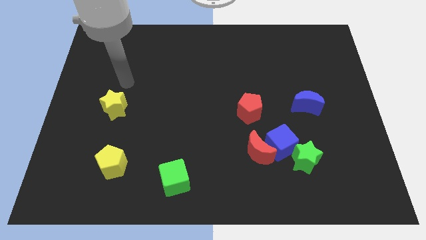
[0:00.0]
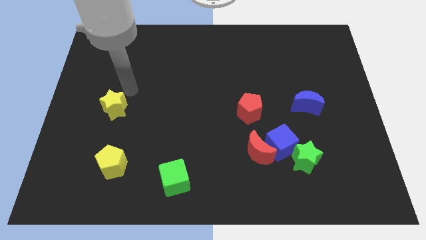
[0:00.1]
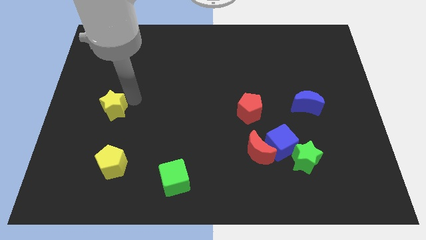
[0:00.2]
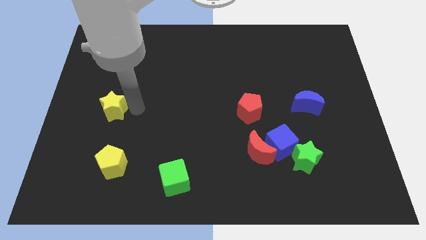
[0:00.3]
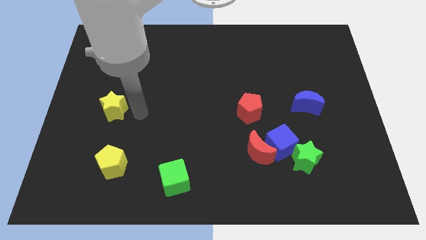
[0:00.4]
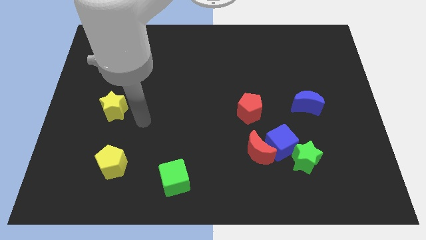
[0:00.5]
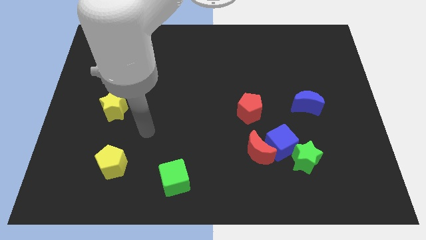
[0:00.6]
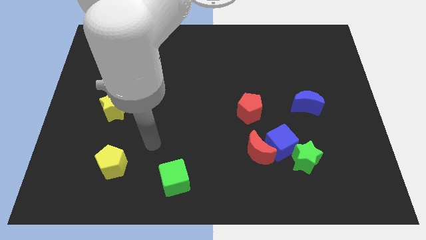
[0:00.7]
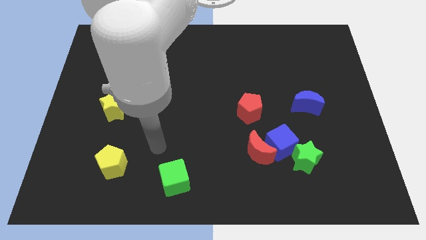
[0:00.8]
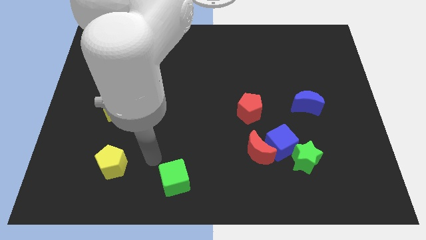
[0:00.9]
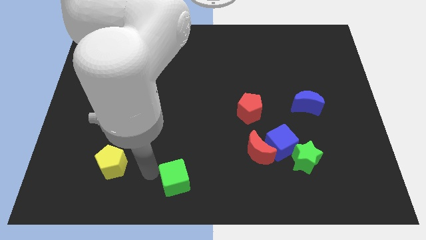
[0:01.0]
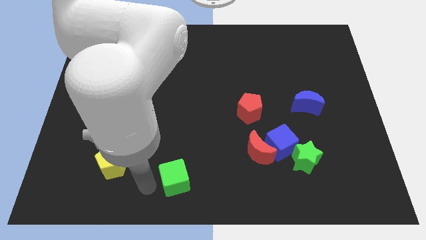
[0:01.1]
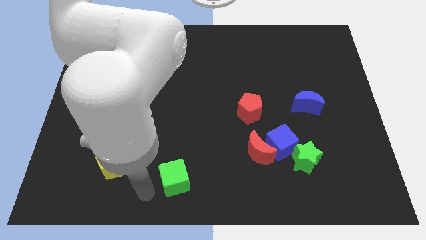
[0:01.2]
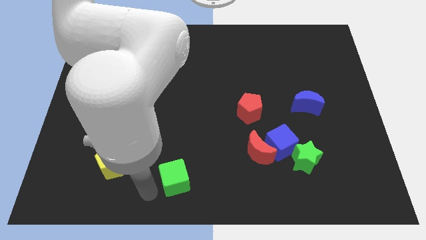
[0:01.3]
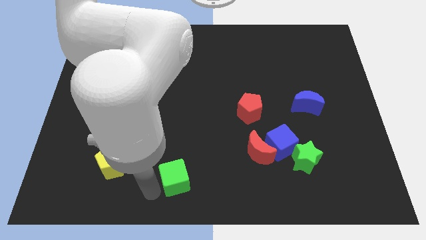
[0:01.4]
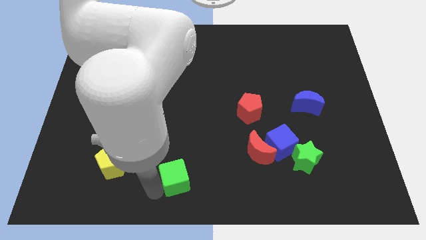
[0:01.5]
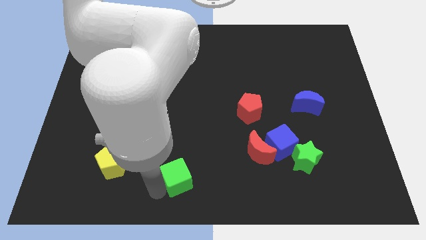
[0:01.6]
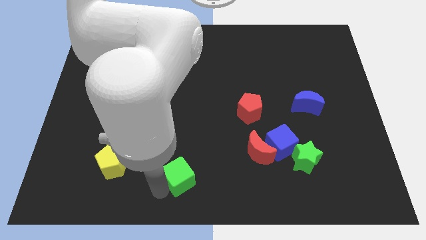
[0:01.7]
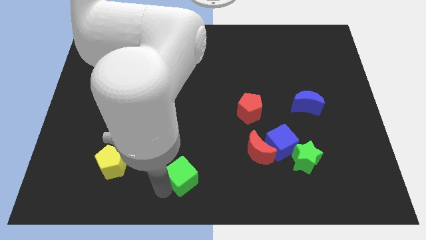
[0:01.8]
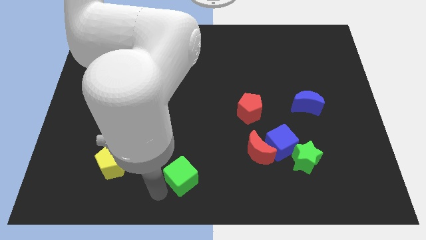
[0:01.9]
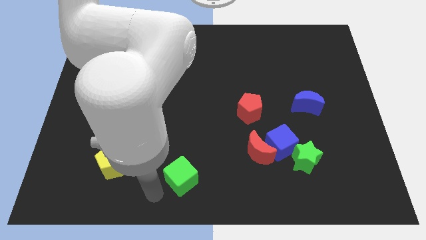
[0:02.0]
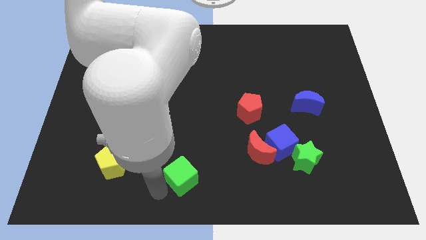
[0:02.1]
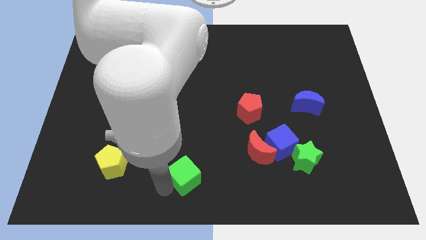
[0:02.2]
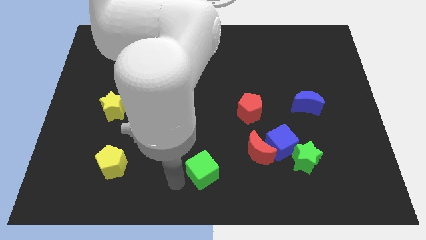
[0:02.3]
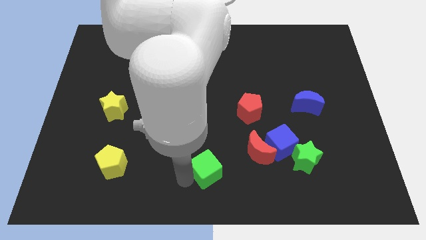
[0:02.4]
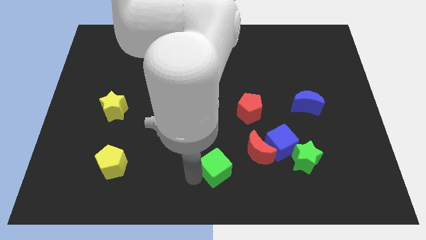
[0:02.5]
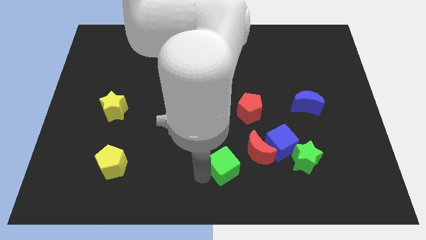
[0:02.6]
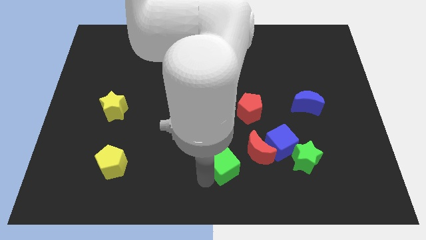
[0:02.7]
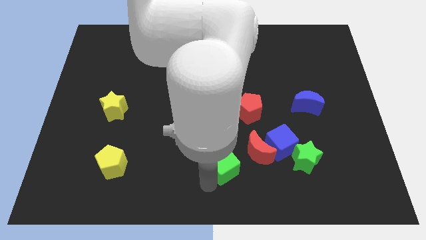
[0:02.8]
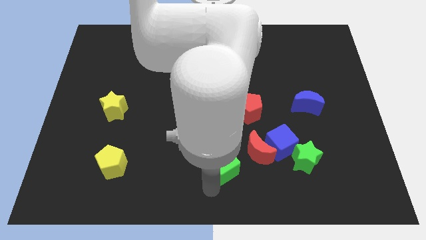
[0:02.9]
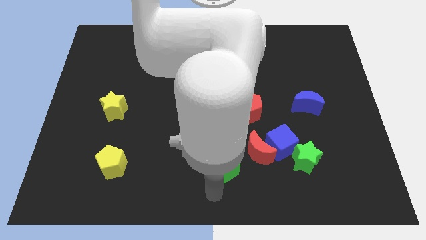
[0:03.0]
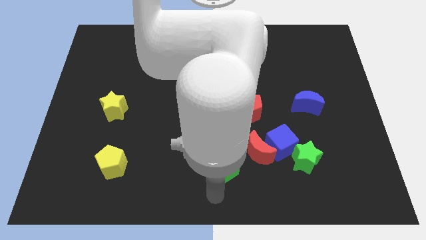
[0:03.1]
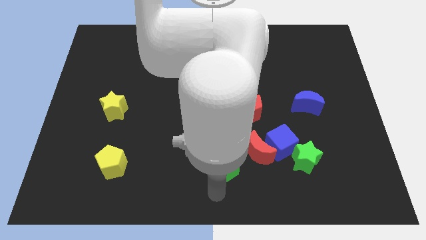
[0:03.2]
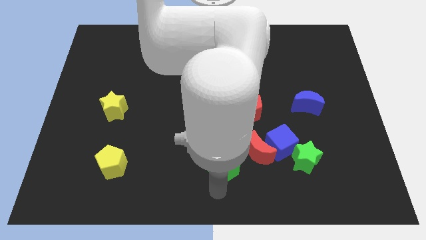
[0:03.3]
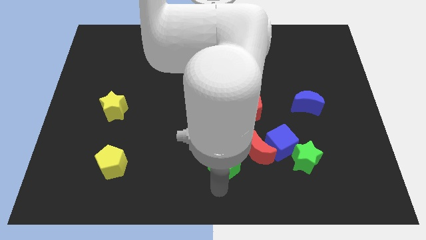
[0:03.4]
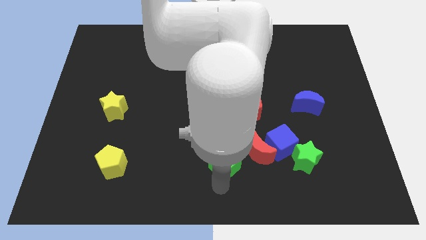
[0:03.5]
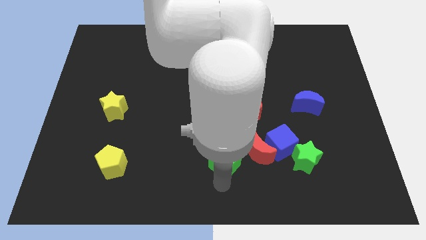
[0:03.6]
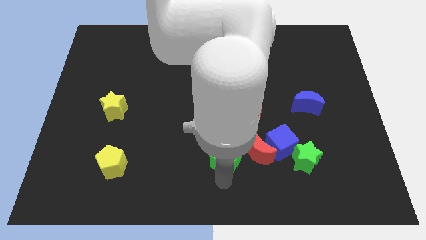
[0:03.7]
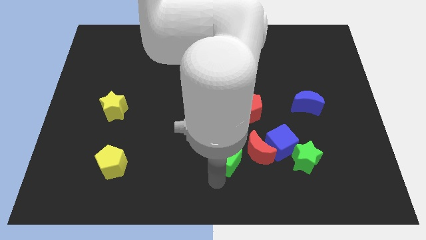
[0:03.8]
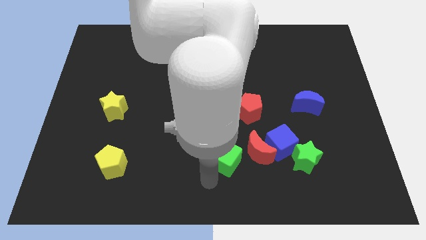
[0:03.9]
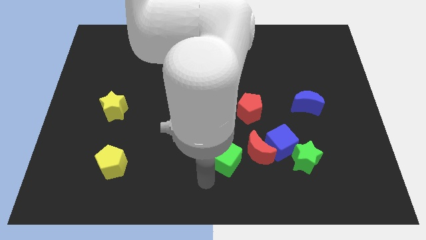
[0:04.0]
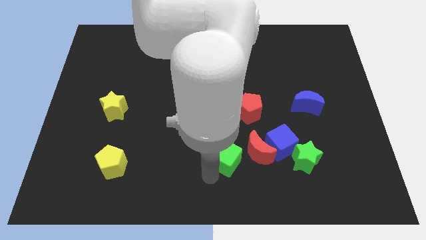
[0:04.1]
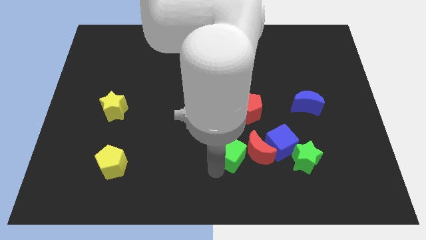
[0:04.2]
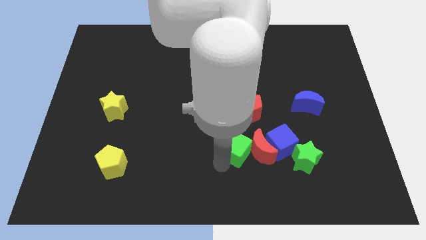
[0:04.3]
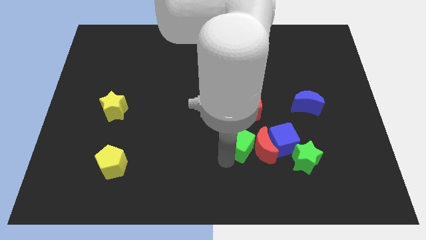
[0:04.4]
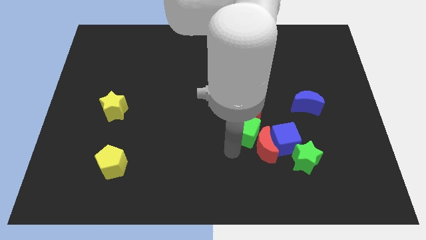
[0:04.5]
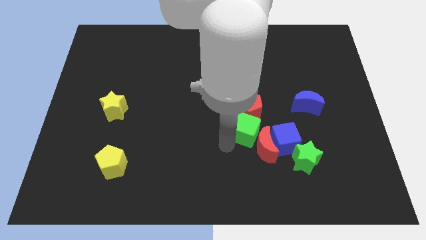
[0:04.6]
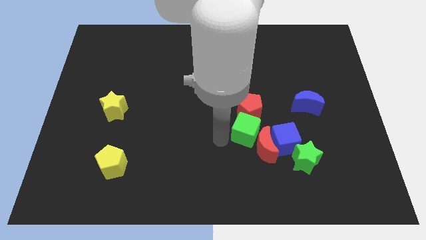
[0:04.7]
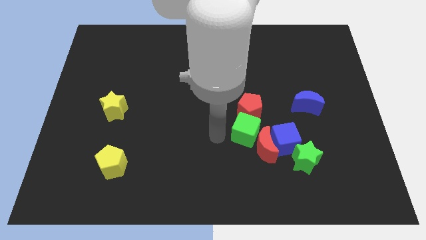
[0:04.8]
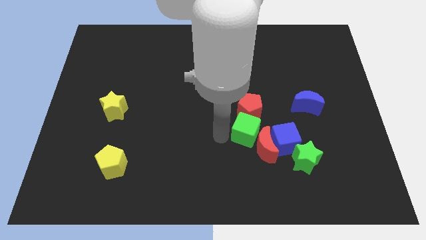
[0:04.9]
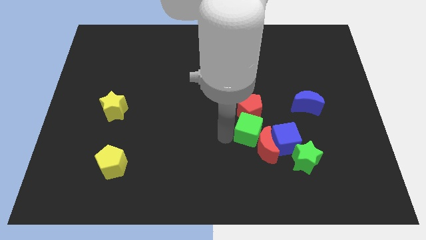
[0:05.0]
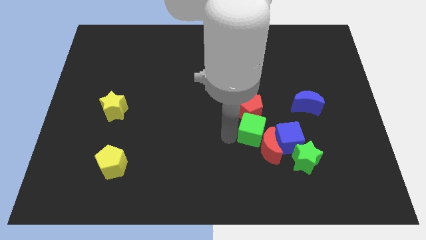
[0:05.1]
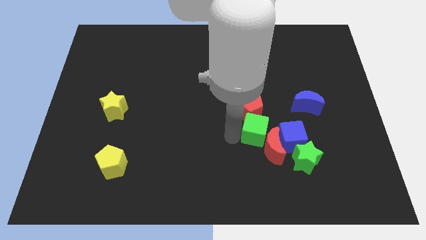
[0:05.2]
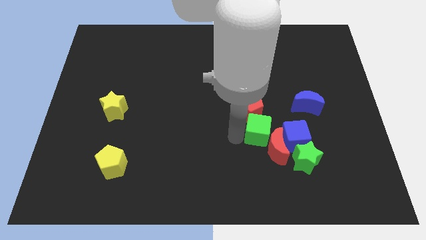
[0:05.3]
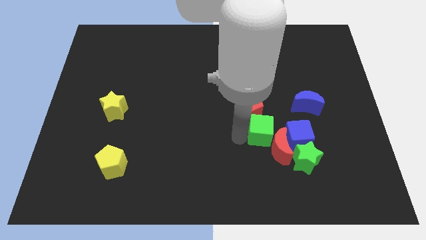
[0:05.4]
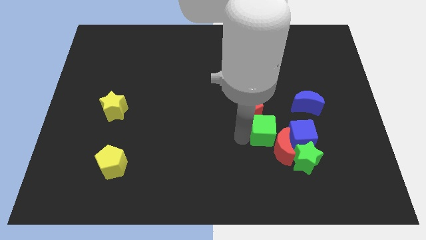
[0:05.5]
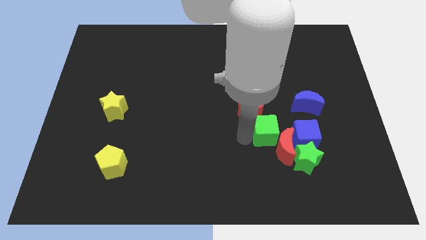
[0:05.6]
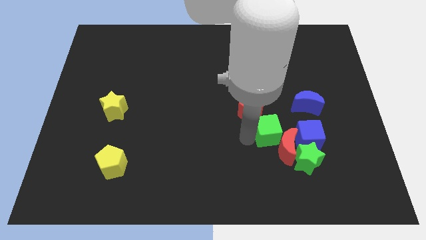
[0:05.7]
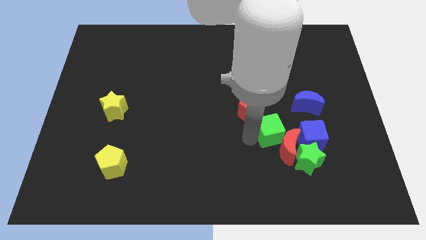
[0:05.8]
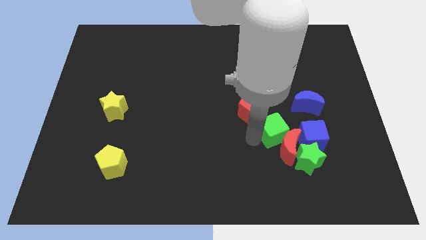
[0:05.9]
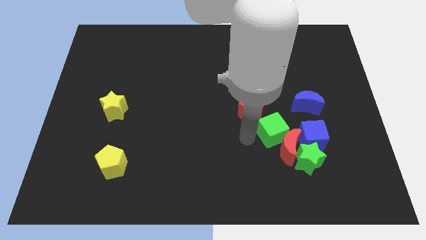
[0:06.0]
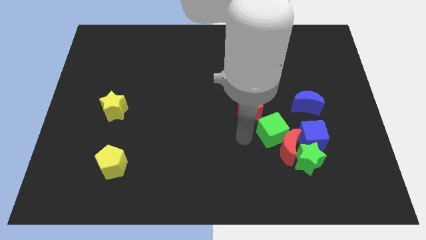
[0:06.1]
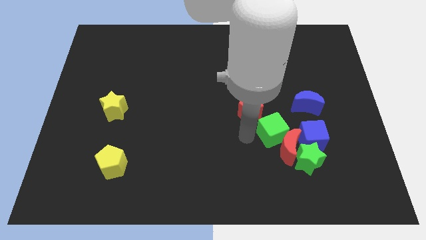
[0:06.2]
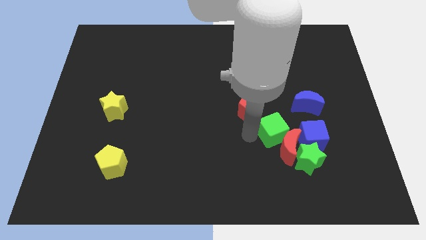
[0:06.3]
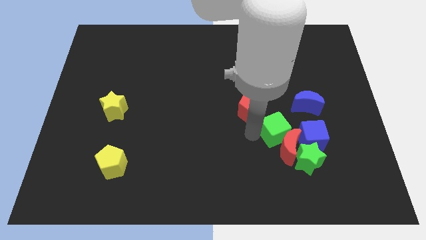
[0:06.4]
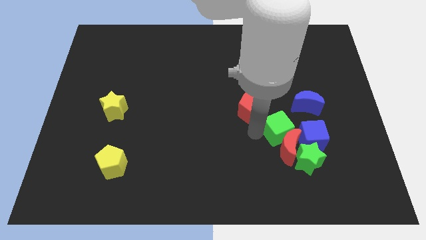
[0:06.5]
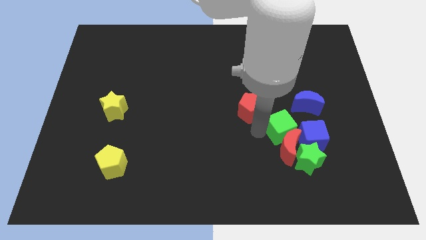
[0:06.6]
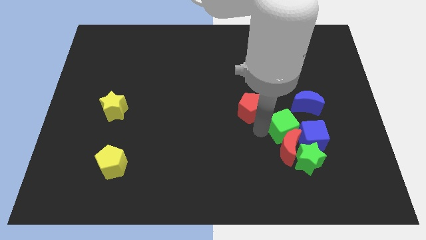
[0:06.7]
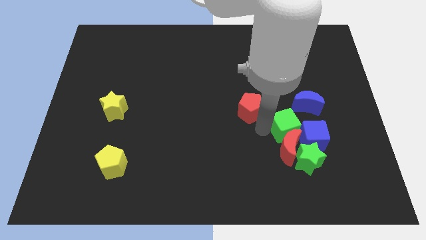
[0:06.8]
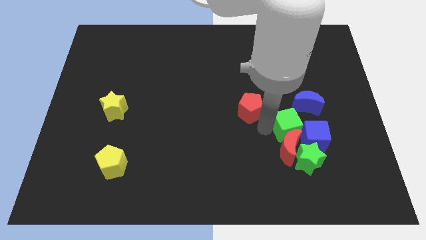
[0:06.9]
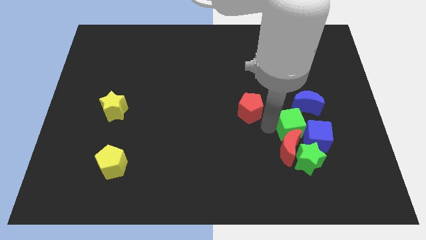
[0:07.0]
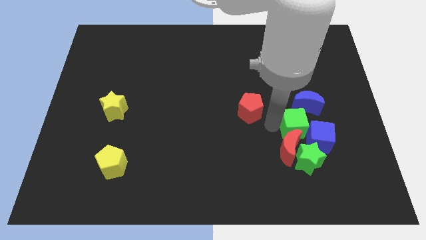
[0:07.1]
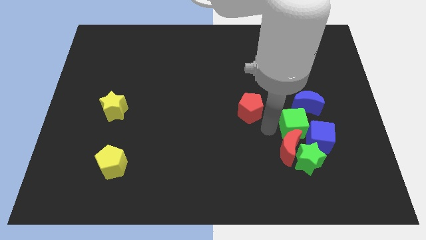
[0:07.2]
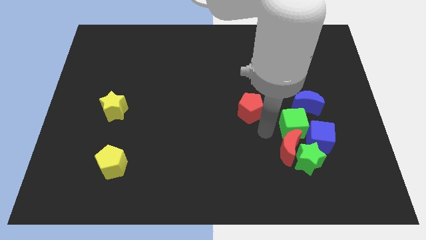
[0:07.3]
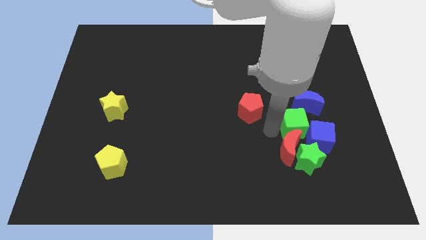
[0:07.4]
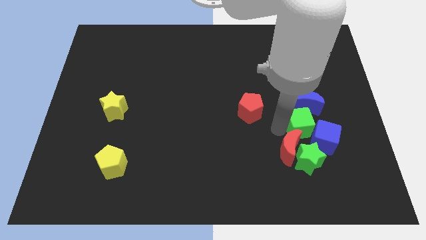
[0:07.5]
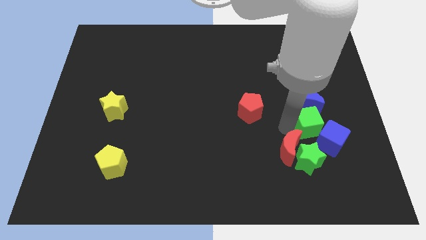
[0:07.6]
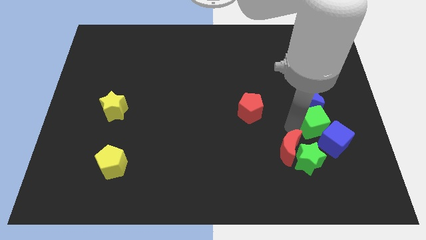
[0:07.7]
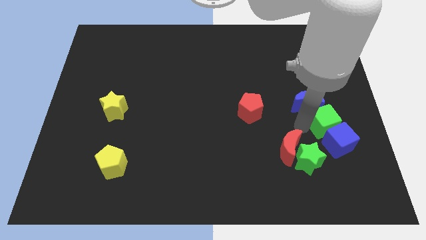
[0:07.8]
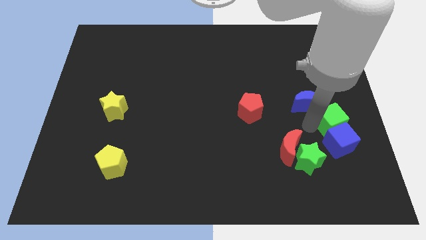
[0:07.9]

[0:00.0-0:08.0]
push the green cube to the center right
